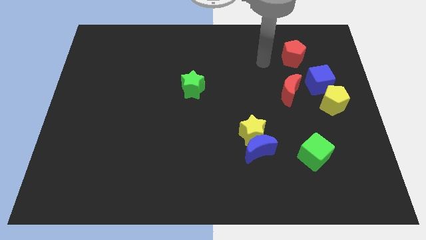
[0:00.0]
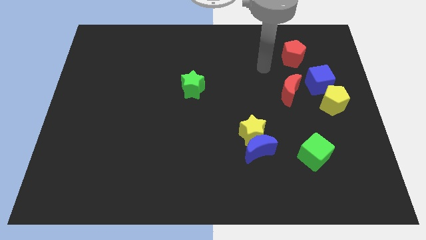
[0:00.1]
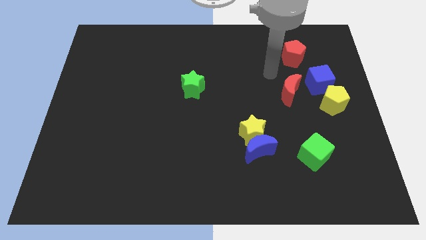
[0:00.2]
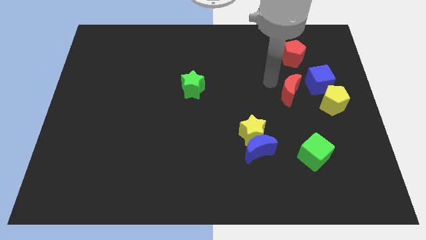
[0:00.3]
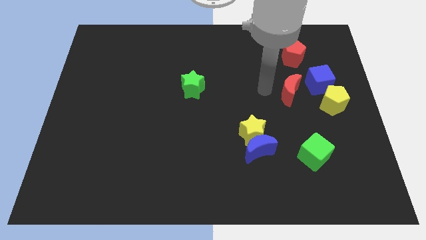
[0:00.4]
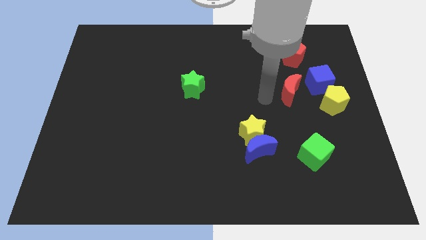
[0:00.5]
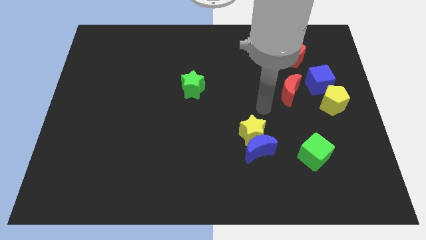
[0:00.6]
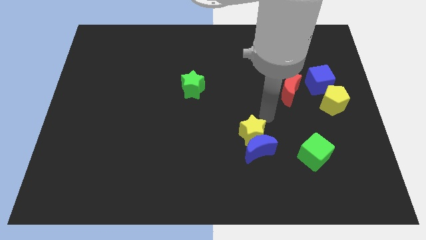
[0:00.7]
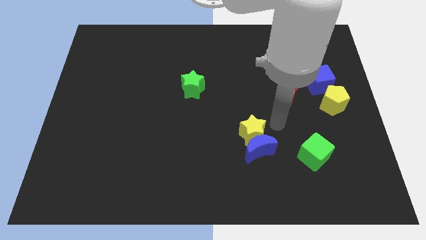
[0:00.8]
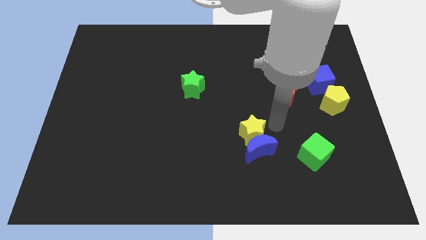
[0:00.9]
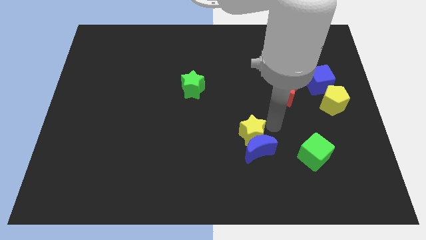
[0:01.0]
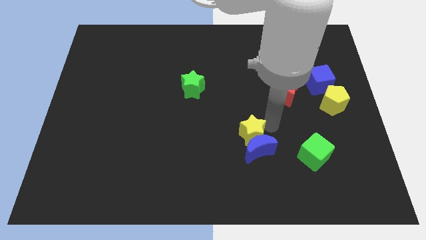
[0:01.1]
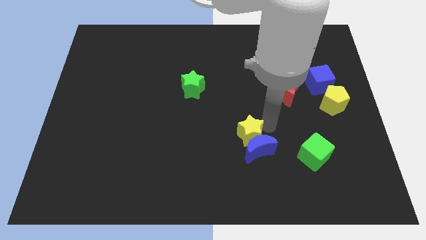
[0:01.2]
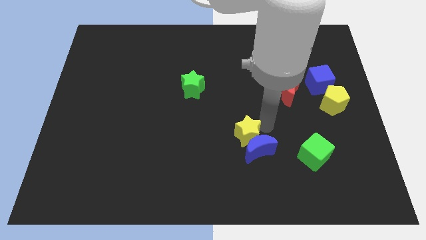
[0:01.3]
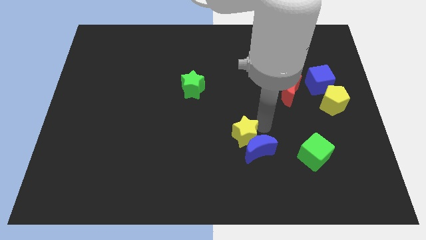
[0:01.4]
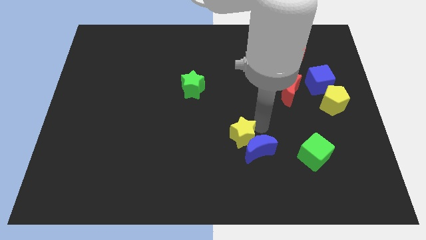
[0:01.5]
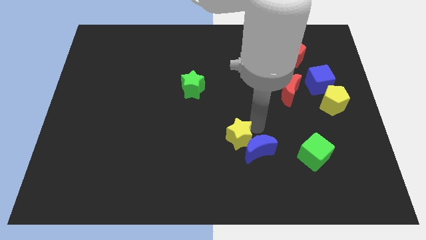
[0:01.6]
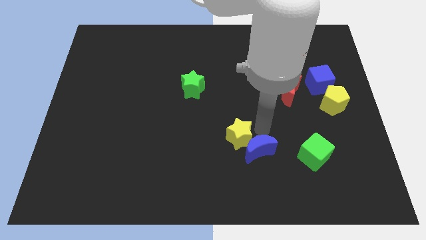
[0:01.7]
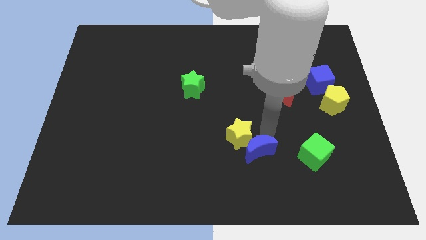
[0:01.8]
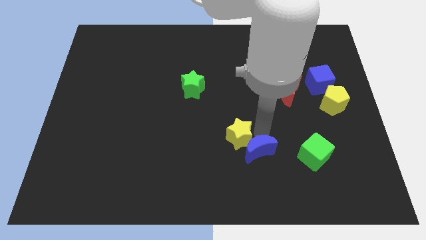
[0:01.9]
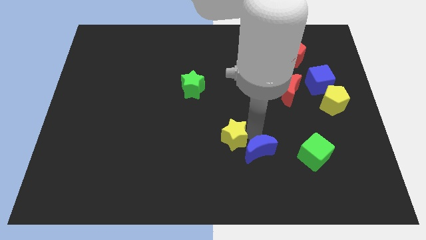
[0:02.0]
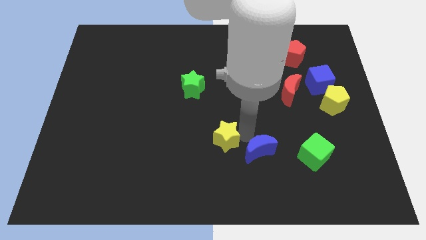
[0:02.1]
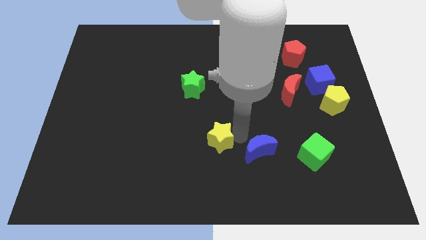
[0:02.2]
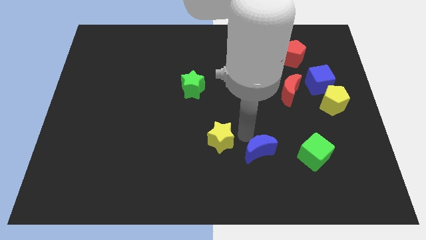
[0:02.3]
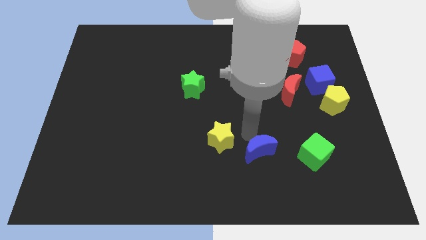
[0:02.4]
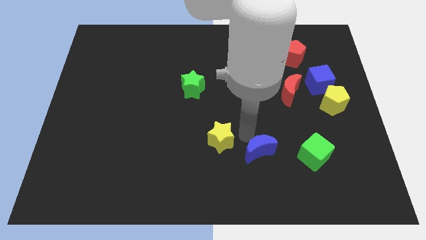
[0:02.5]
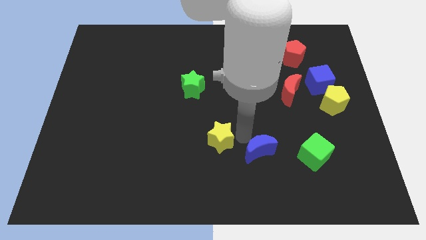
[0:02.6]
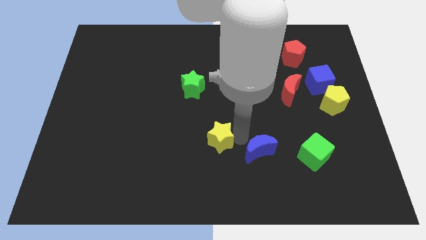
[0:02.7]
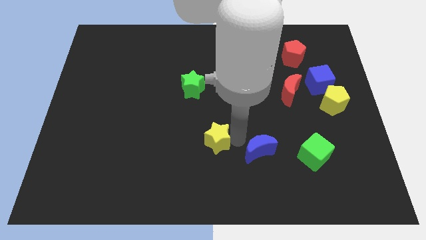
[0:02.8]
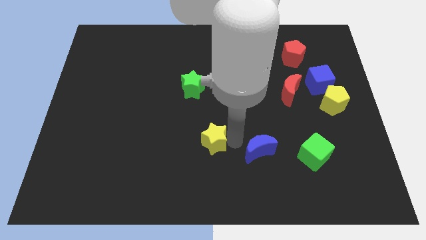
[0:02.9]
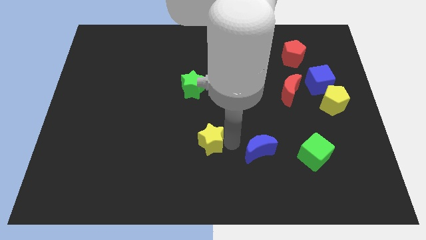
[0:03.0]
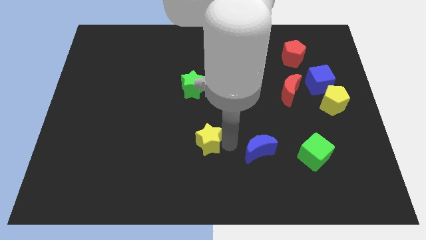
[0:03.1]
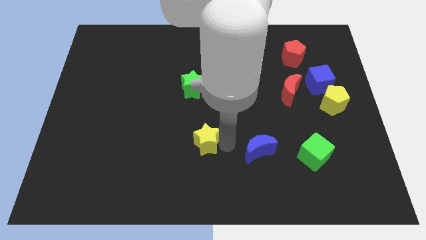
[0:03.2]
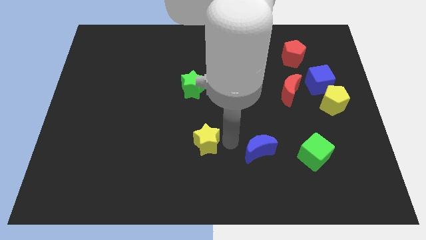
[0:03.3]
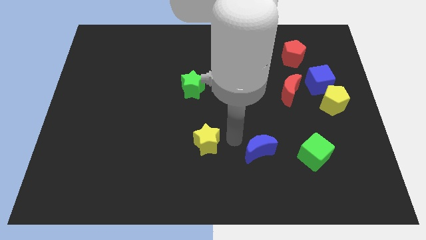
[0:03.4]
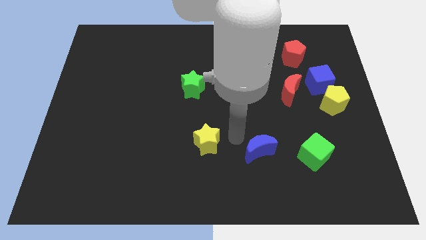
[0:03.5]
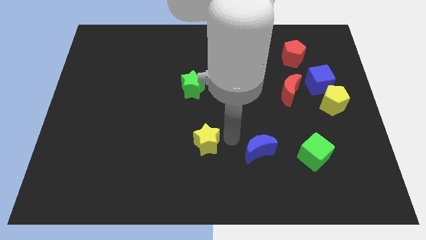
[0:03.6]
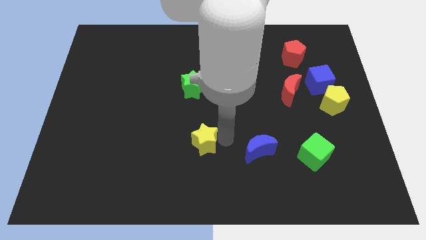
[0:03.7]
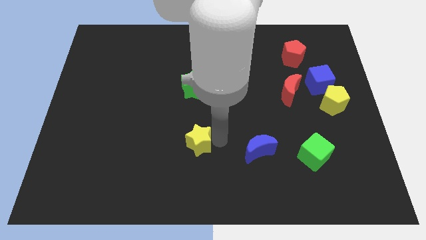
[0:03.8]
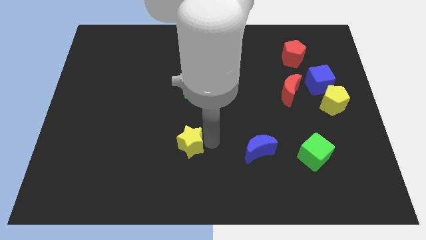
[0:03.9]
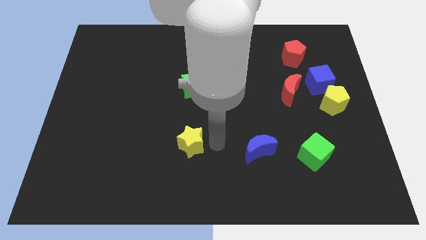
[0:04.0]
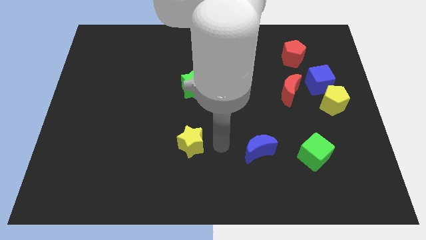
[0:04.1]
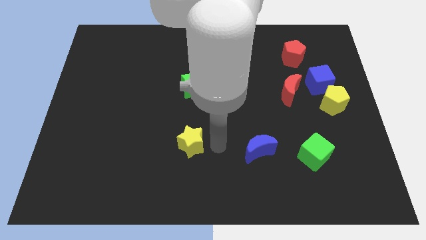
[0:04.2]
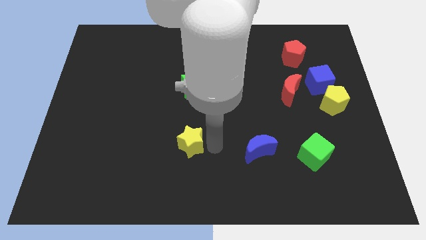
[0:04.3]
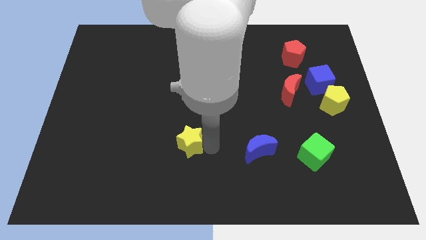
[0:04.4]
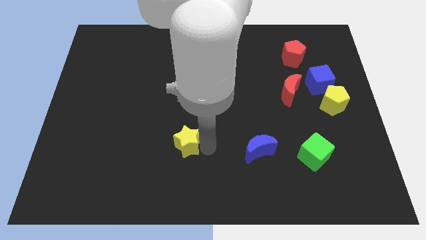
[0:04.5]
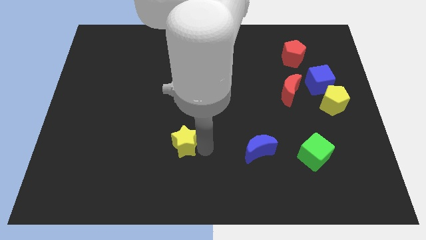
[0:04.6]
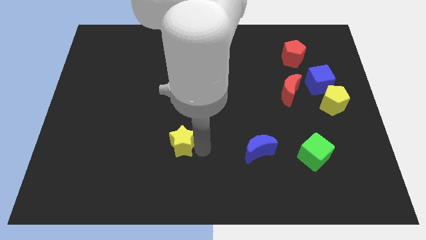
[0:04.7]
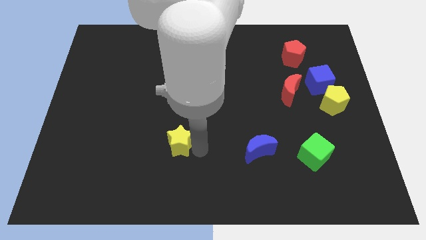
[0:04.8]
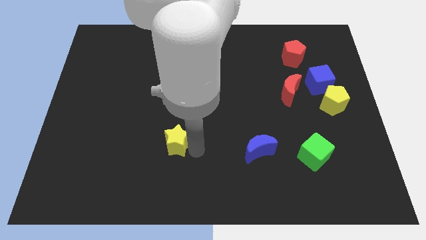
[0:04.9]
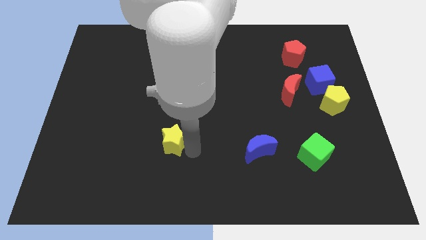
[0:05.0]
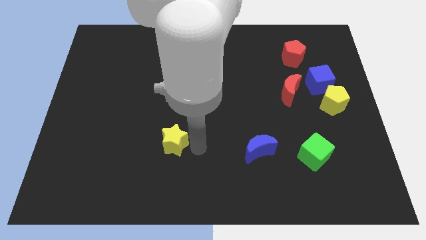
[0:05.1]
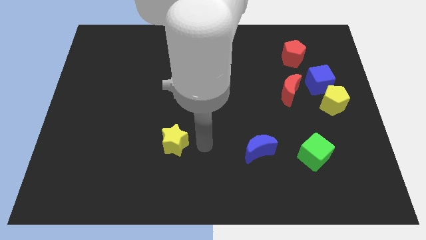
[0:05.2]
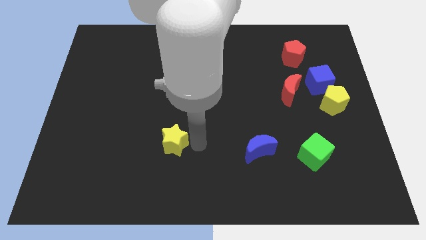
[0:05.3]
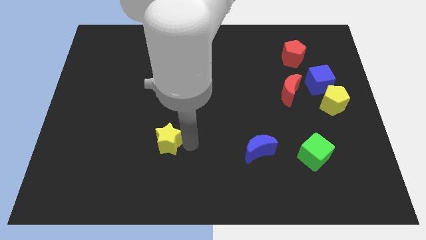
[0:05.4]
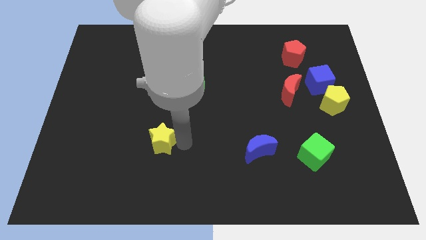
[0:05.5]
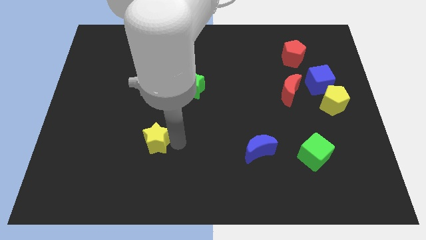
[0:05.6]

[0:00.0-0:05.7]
move the yellow star to the left

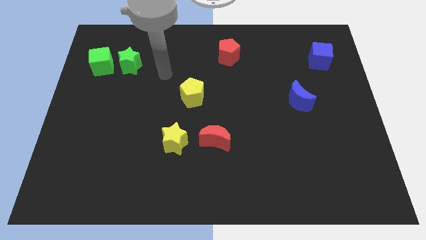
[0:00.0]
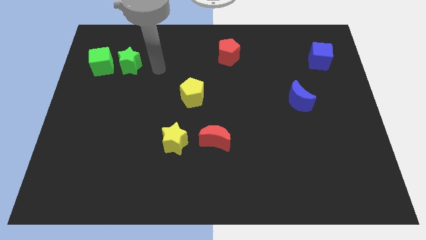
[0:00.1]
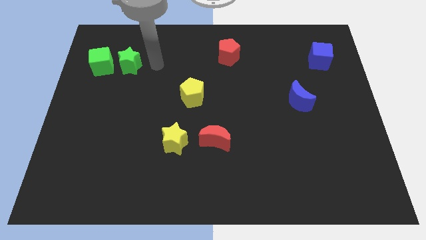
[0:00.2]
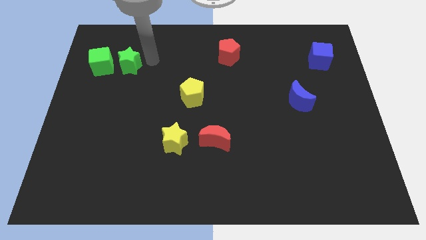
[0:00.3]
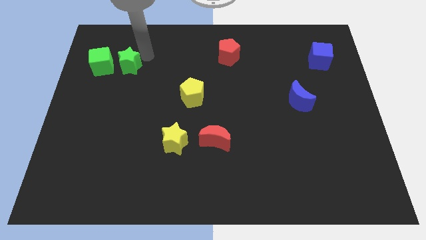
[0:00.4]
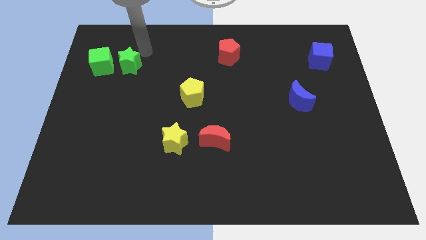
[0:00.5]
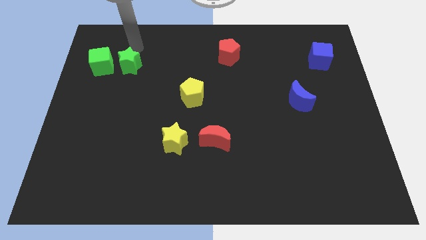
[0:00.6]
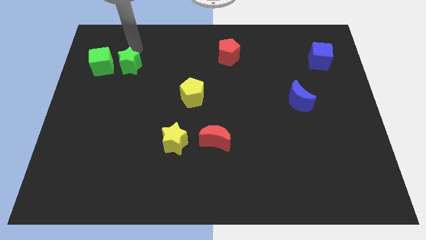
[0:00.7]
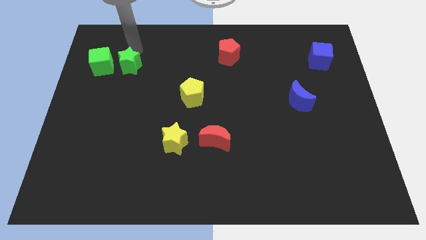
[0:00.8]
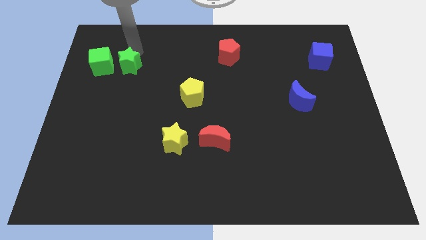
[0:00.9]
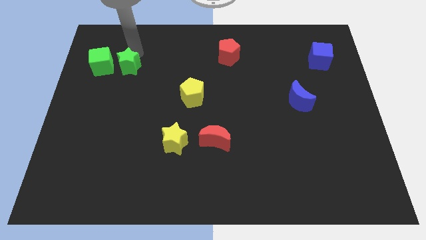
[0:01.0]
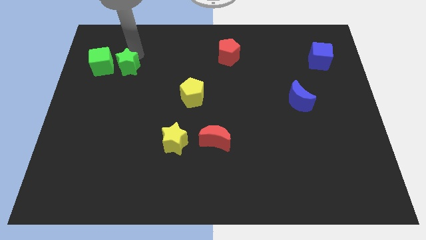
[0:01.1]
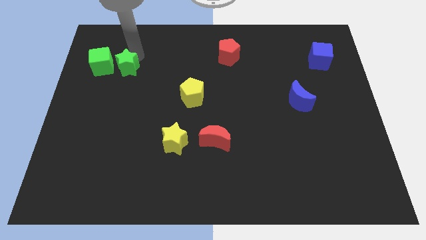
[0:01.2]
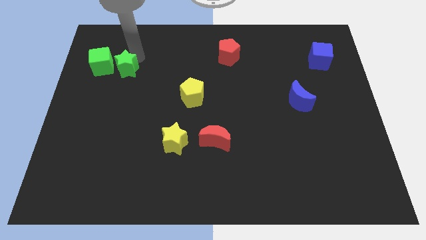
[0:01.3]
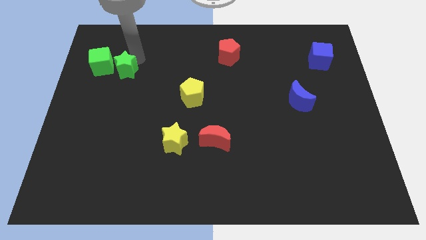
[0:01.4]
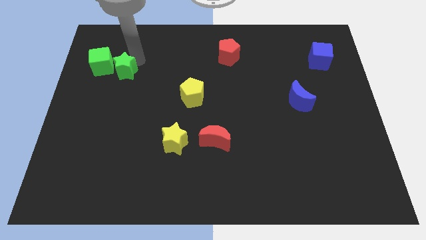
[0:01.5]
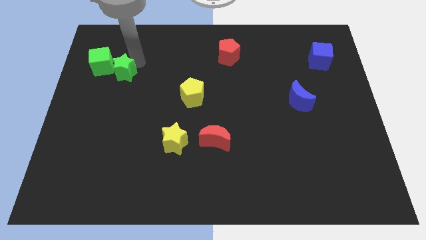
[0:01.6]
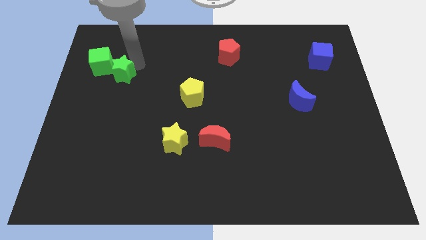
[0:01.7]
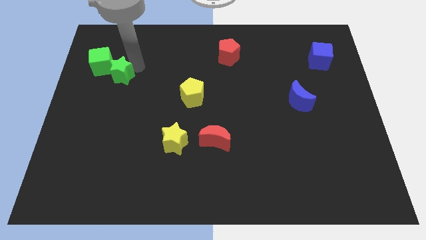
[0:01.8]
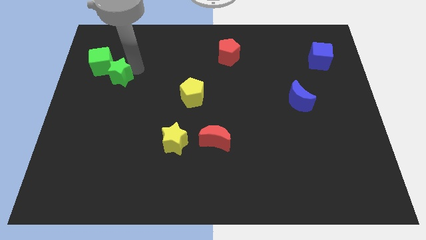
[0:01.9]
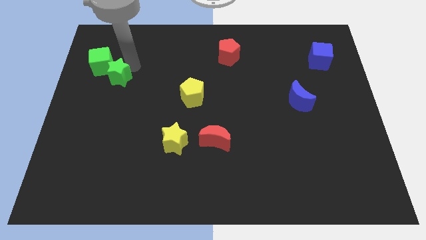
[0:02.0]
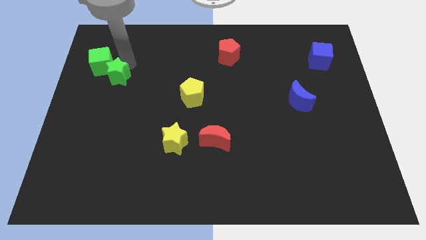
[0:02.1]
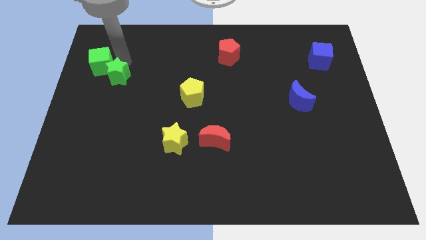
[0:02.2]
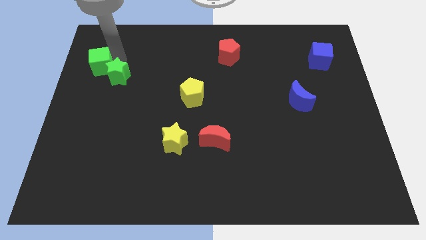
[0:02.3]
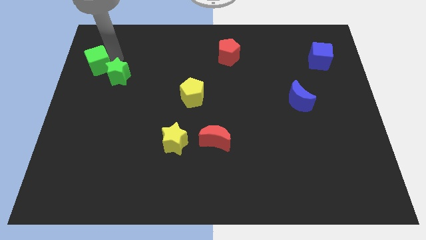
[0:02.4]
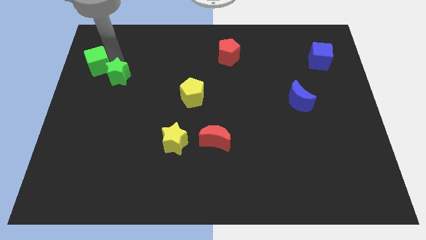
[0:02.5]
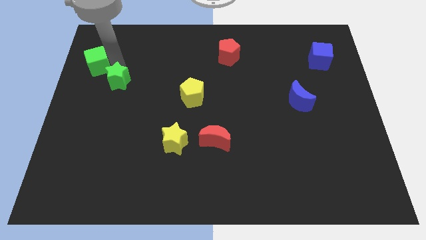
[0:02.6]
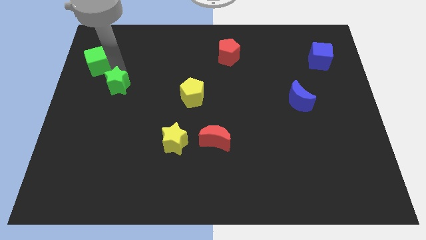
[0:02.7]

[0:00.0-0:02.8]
slightly move the green star down

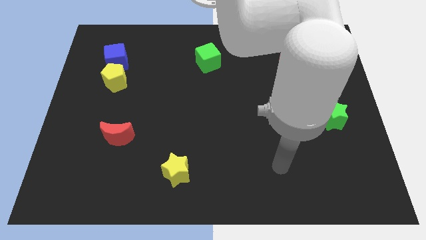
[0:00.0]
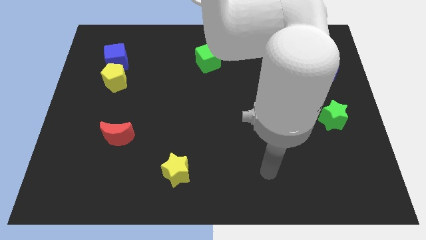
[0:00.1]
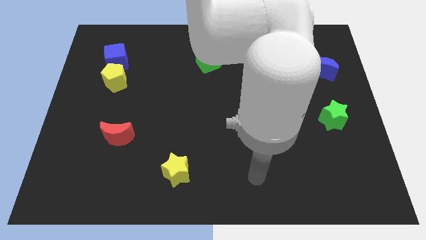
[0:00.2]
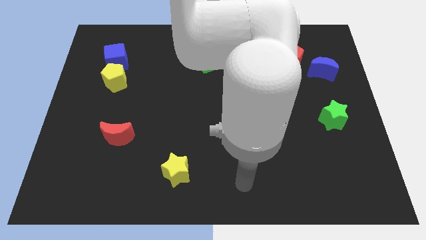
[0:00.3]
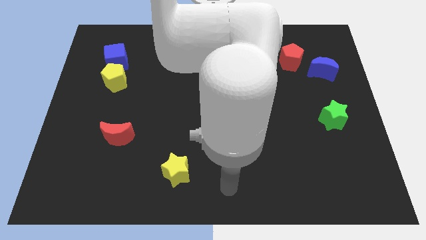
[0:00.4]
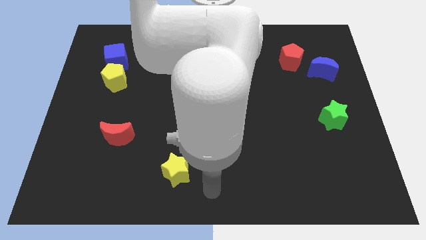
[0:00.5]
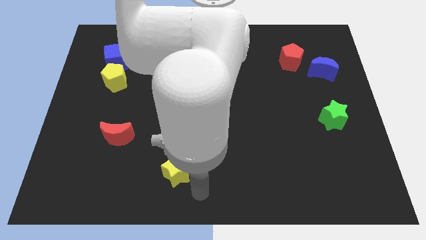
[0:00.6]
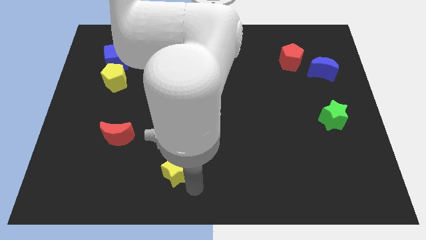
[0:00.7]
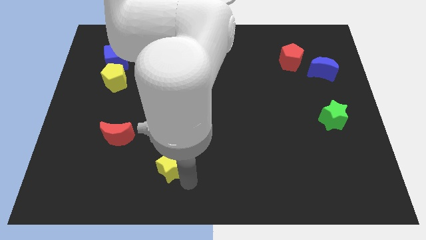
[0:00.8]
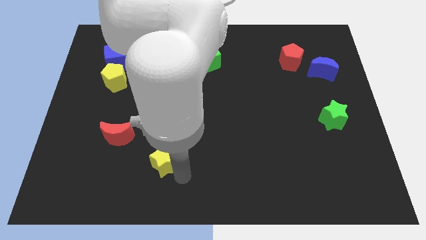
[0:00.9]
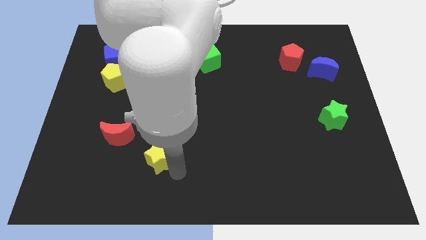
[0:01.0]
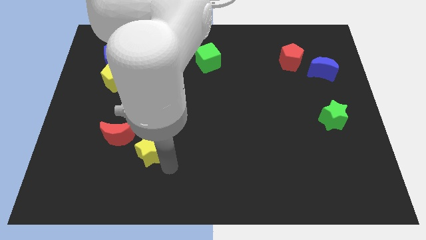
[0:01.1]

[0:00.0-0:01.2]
move the yellow star a bit up and to the left
